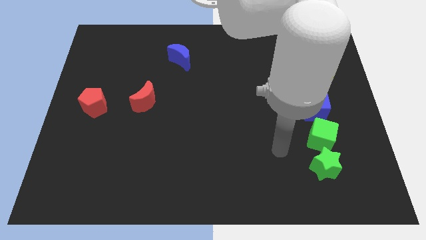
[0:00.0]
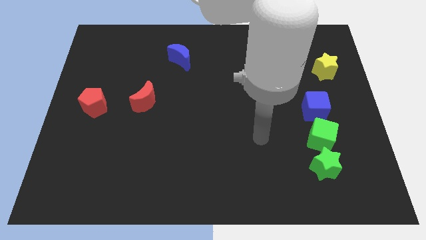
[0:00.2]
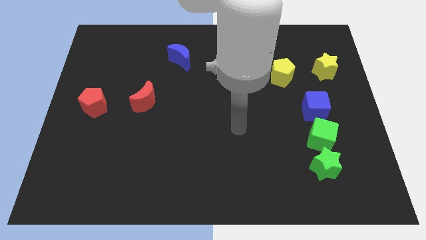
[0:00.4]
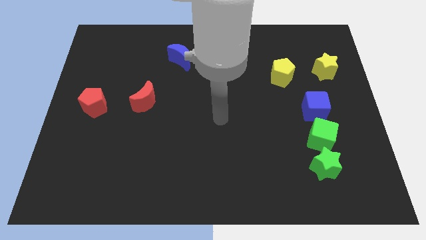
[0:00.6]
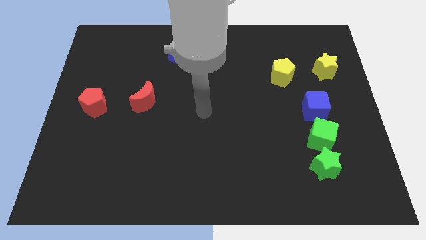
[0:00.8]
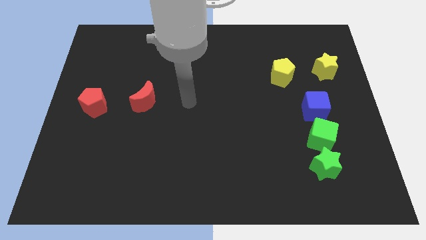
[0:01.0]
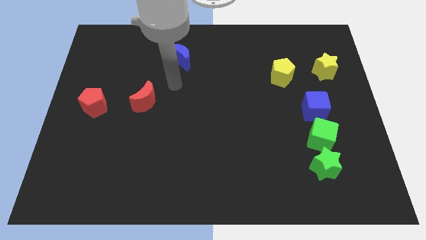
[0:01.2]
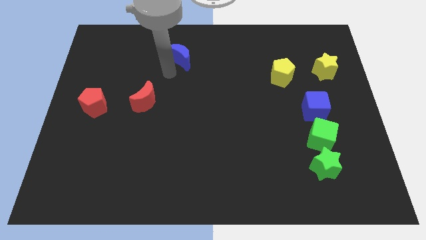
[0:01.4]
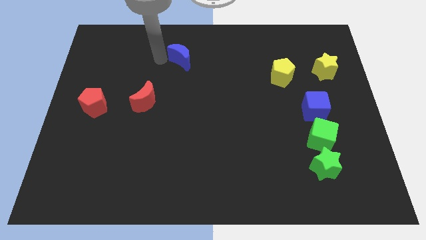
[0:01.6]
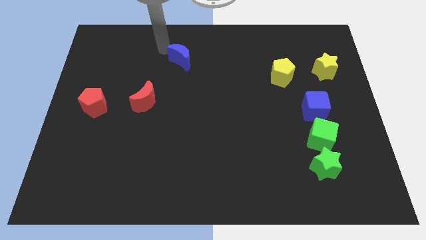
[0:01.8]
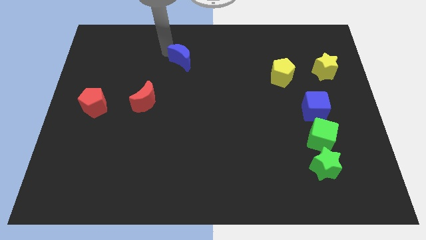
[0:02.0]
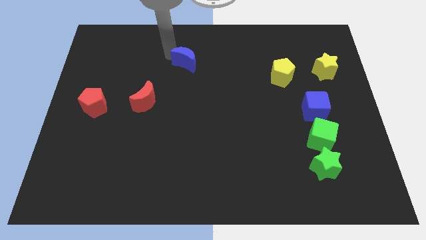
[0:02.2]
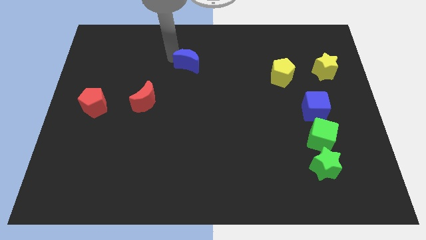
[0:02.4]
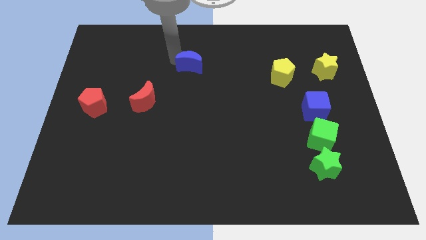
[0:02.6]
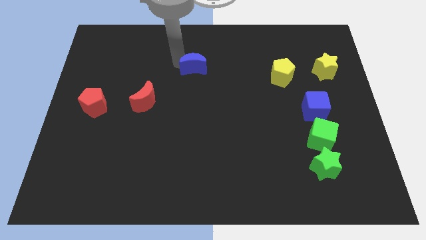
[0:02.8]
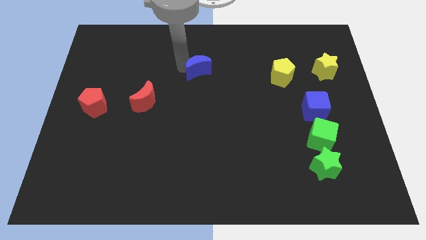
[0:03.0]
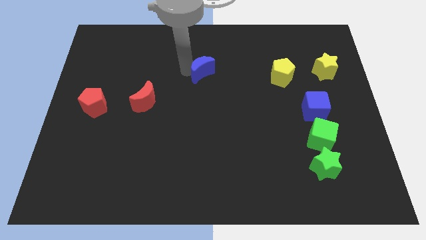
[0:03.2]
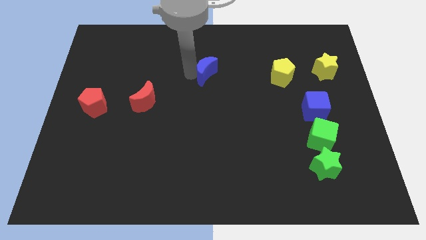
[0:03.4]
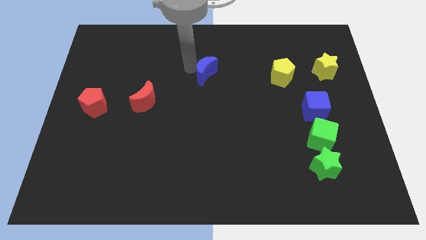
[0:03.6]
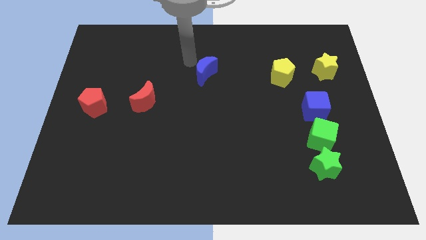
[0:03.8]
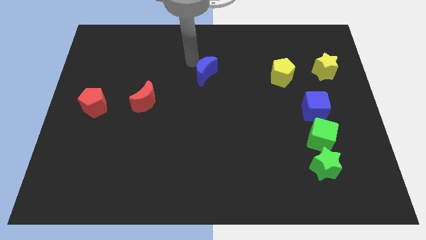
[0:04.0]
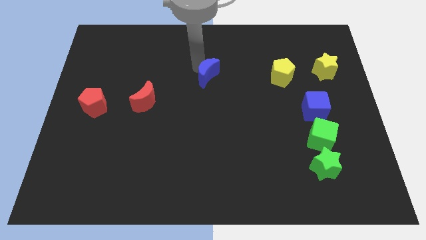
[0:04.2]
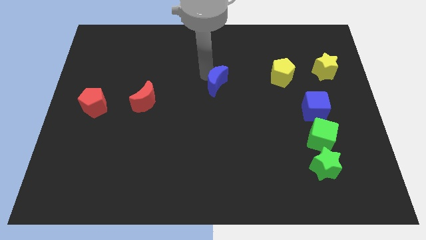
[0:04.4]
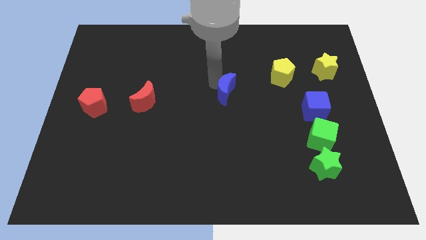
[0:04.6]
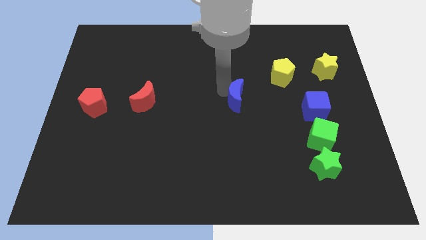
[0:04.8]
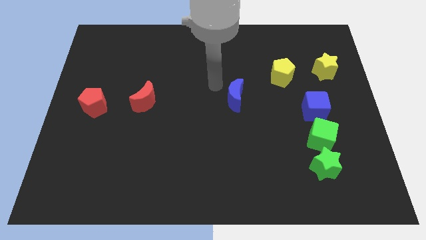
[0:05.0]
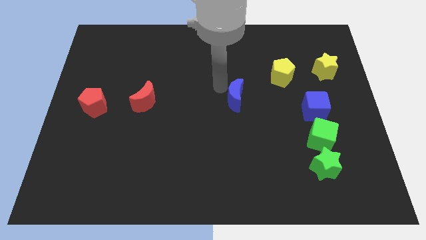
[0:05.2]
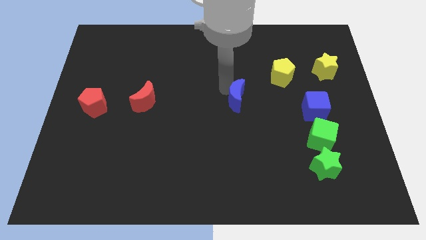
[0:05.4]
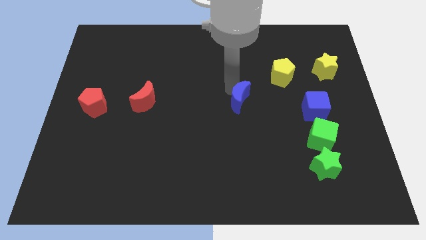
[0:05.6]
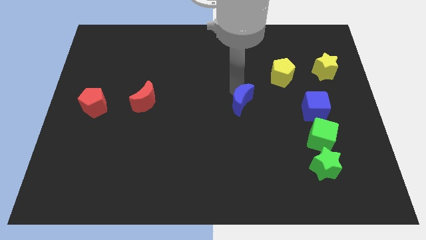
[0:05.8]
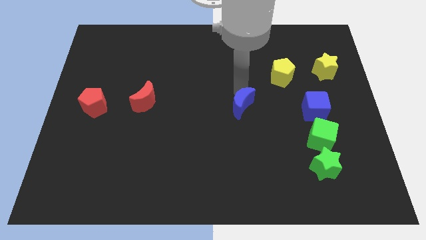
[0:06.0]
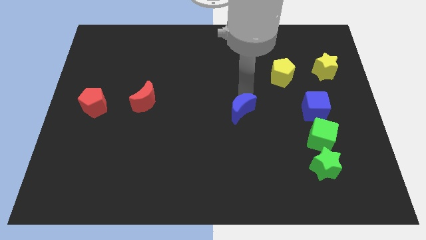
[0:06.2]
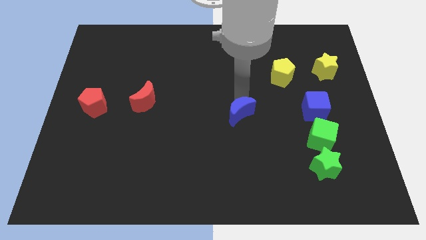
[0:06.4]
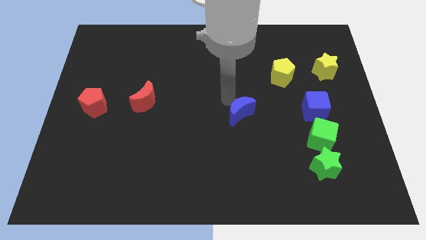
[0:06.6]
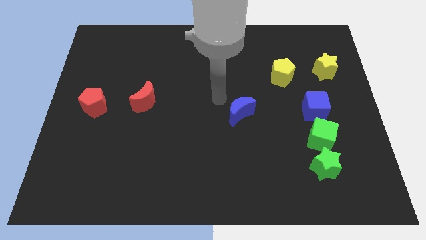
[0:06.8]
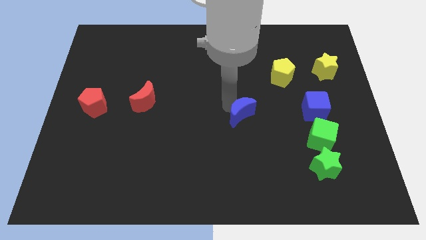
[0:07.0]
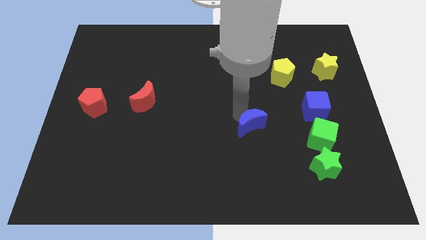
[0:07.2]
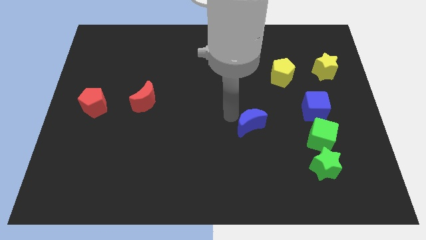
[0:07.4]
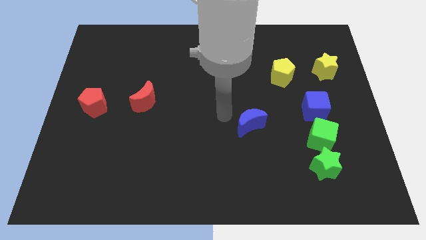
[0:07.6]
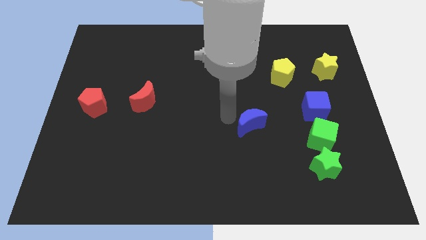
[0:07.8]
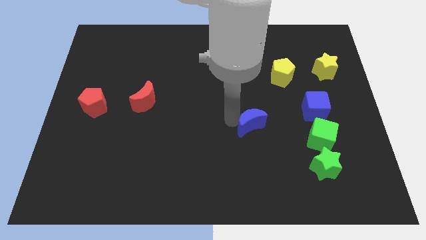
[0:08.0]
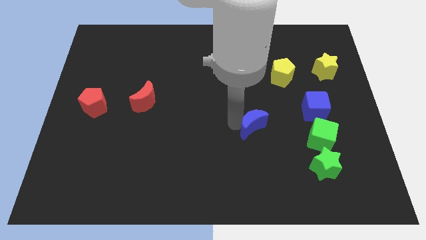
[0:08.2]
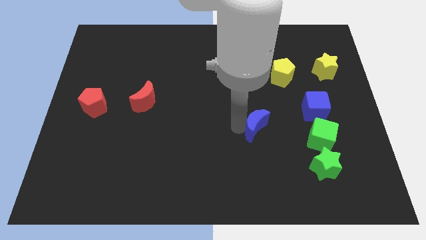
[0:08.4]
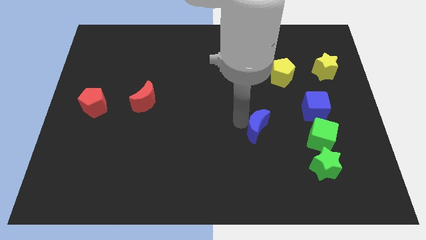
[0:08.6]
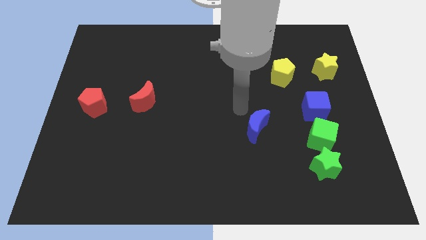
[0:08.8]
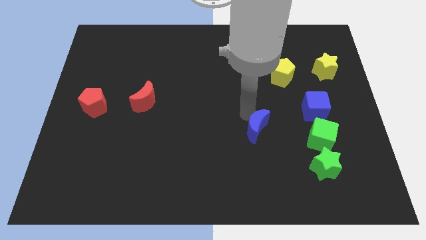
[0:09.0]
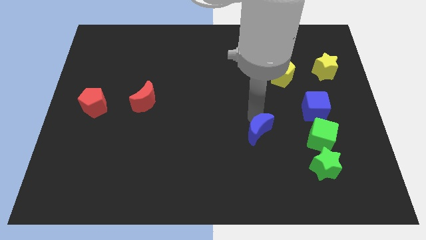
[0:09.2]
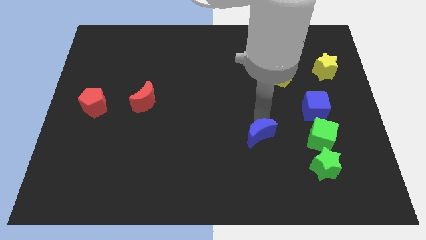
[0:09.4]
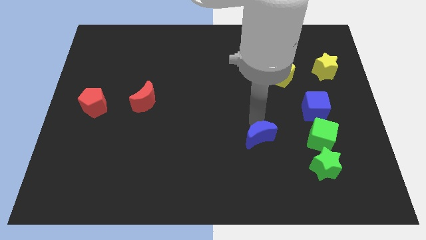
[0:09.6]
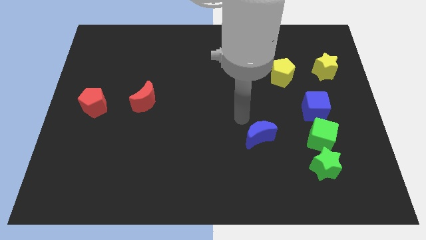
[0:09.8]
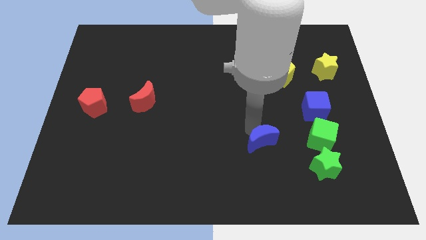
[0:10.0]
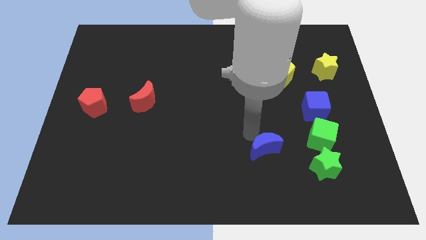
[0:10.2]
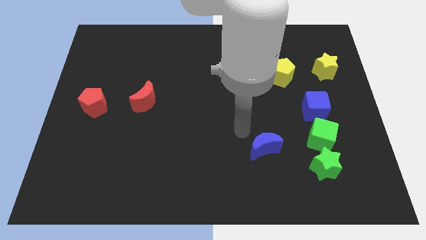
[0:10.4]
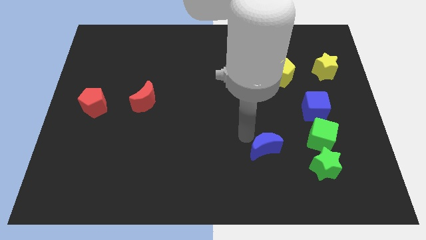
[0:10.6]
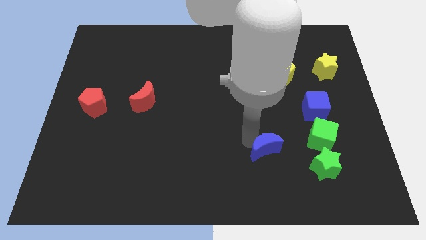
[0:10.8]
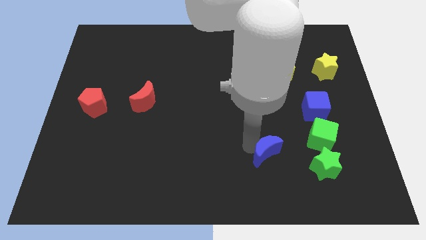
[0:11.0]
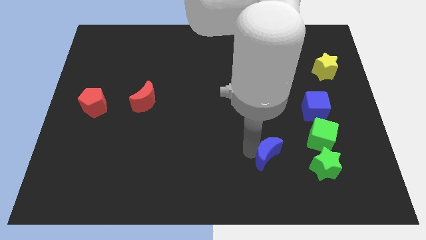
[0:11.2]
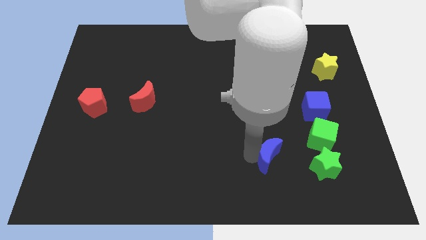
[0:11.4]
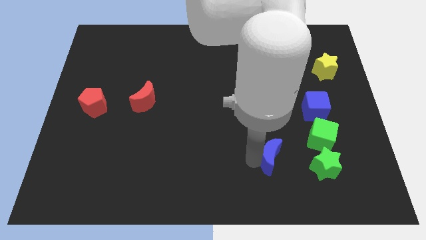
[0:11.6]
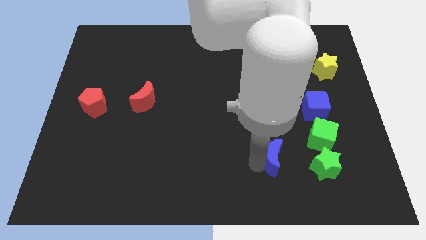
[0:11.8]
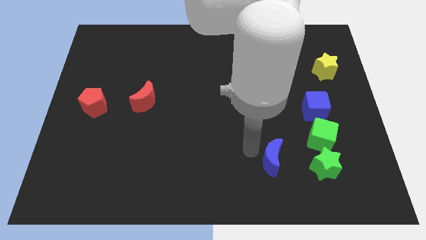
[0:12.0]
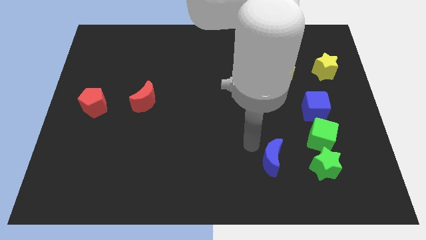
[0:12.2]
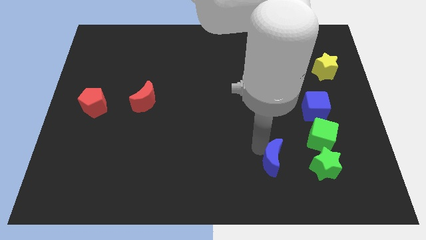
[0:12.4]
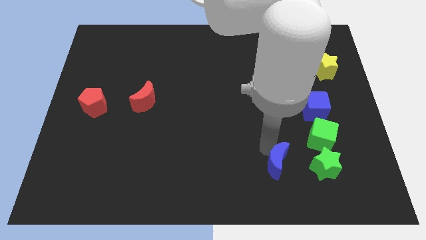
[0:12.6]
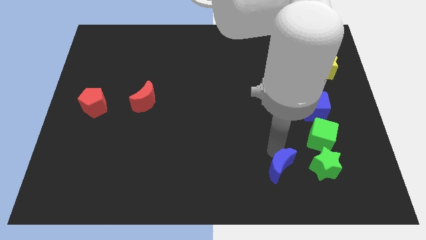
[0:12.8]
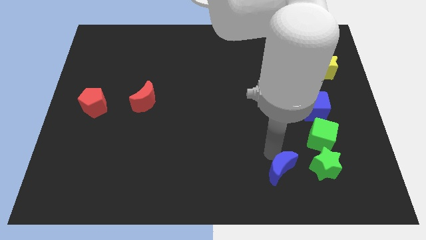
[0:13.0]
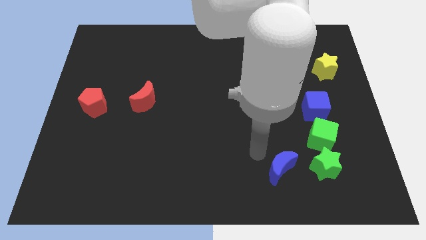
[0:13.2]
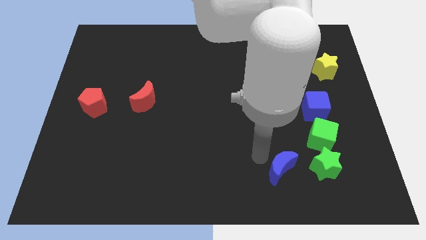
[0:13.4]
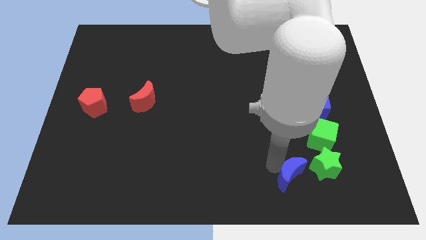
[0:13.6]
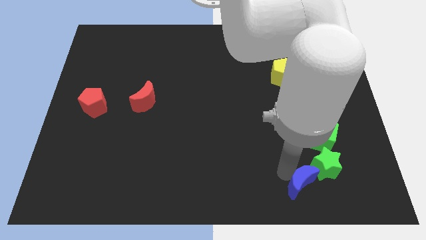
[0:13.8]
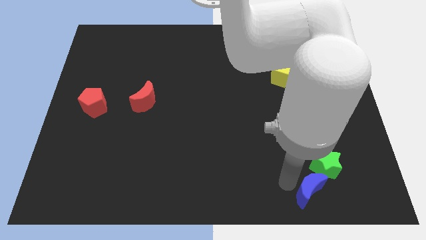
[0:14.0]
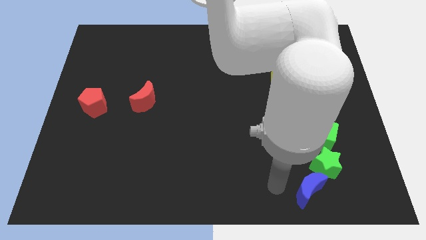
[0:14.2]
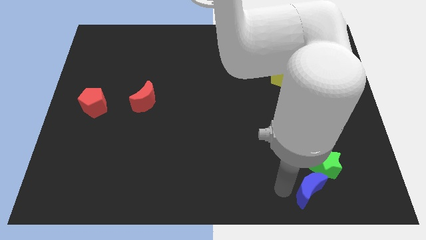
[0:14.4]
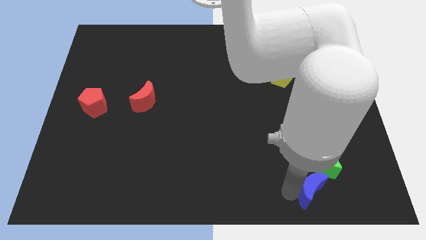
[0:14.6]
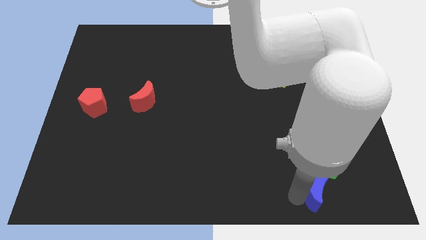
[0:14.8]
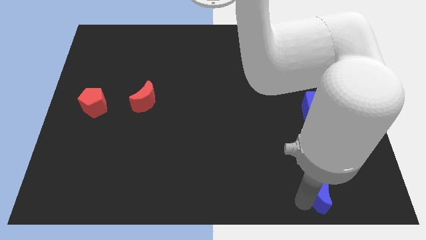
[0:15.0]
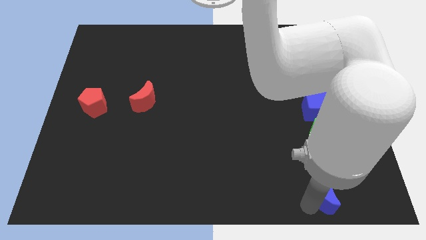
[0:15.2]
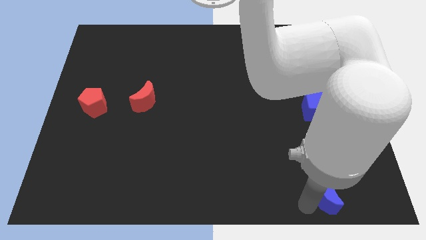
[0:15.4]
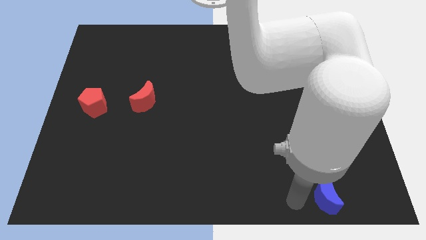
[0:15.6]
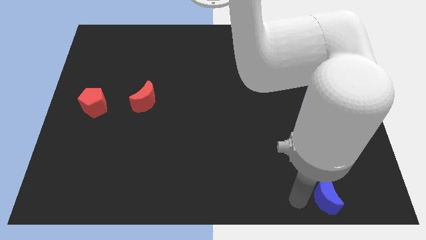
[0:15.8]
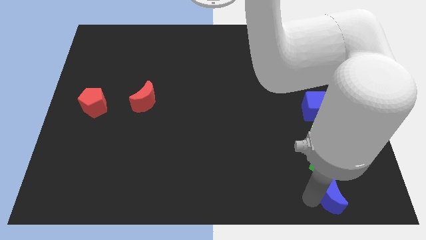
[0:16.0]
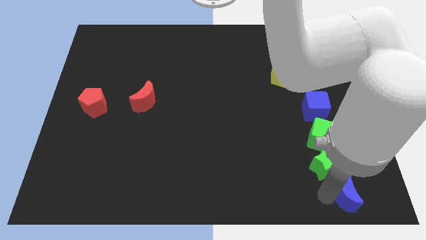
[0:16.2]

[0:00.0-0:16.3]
slide the blue moon to the bottom right corner
